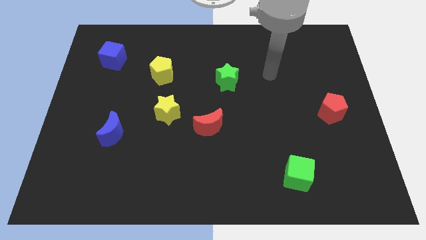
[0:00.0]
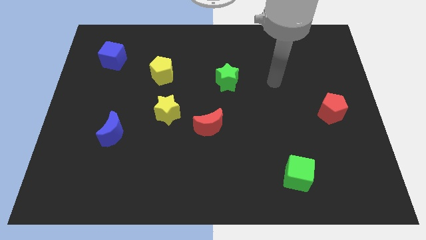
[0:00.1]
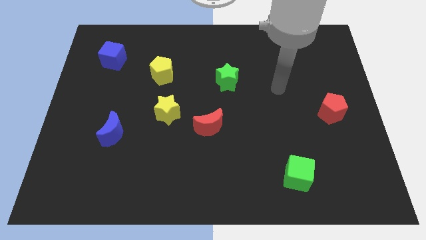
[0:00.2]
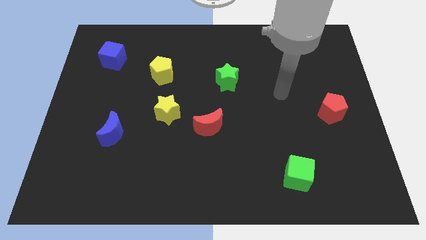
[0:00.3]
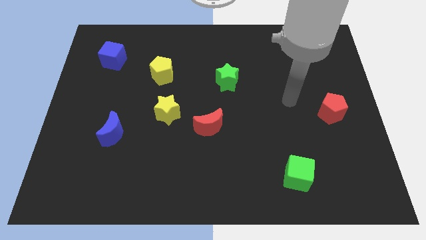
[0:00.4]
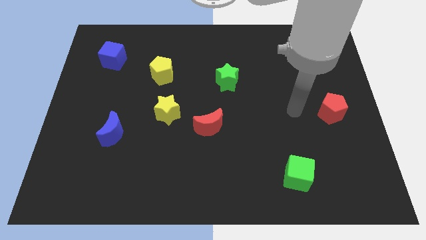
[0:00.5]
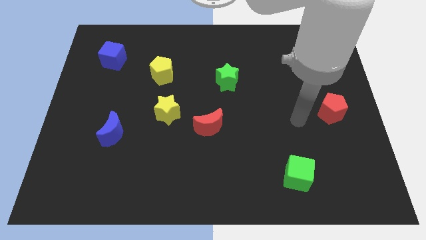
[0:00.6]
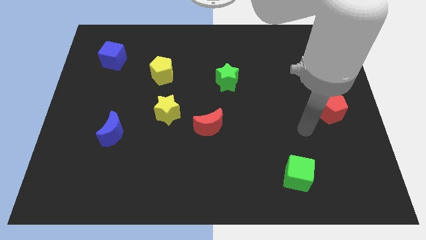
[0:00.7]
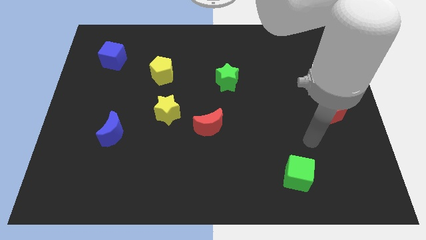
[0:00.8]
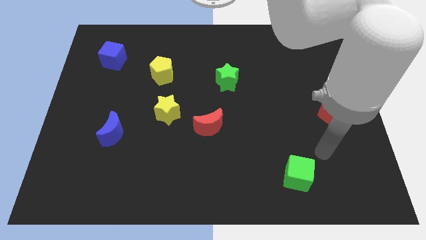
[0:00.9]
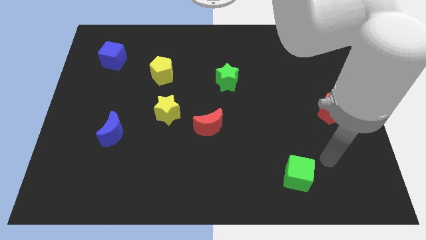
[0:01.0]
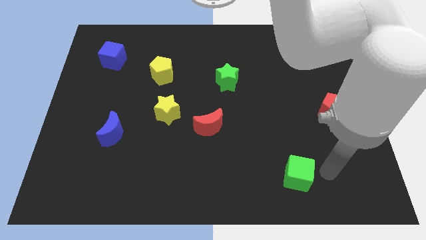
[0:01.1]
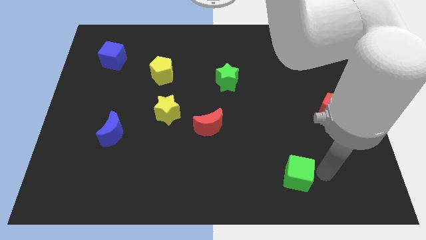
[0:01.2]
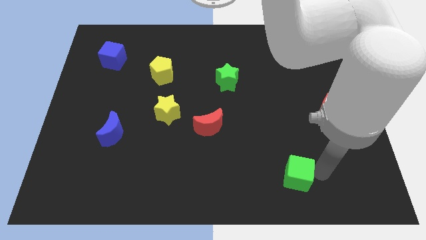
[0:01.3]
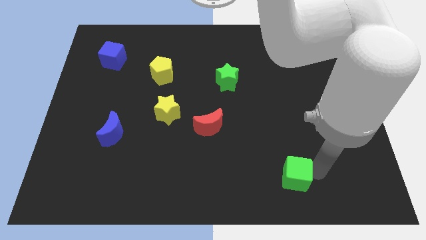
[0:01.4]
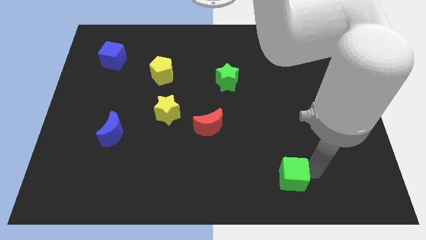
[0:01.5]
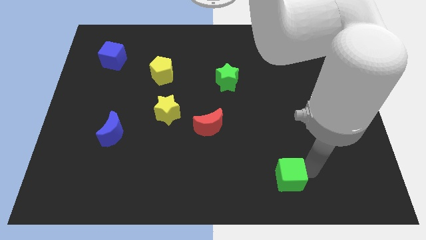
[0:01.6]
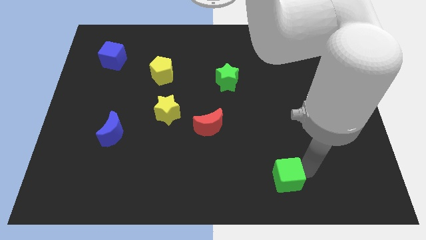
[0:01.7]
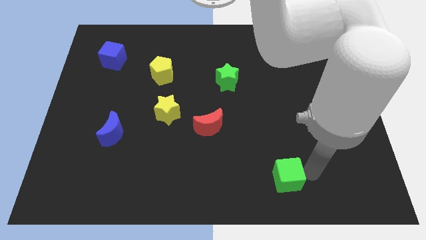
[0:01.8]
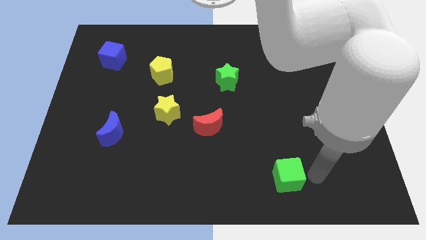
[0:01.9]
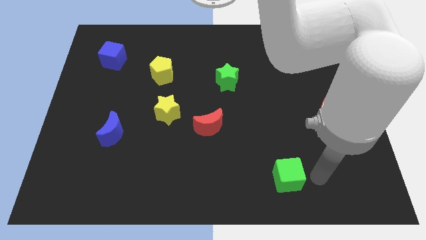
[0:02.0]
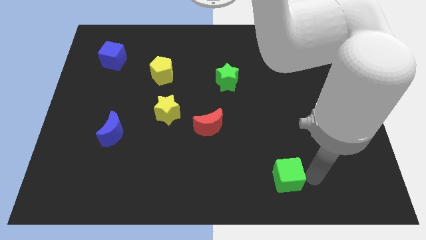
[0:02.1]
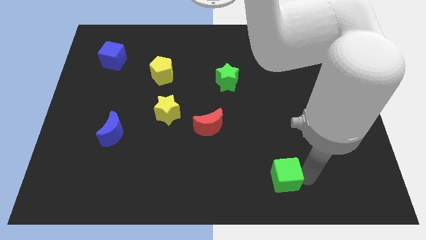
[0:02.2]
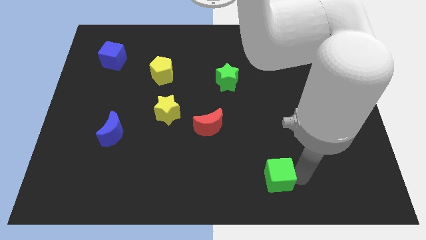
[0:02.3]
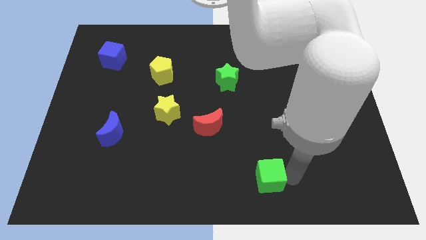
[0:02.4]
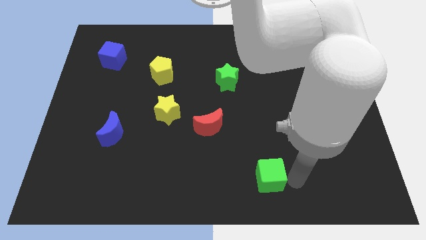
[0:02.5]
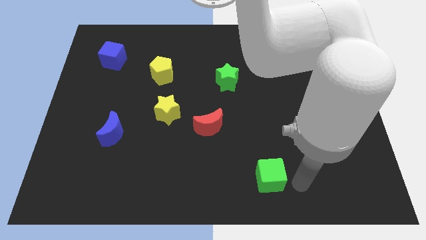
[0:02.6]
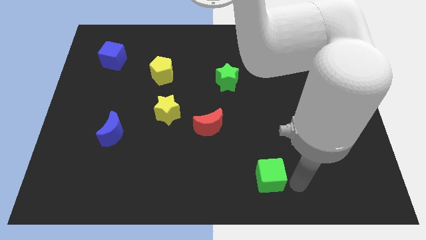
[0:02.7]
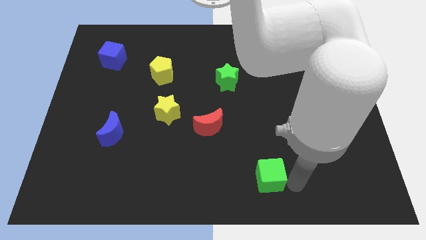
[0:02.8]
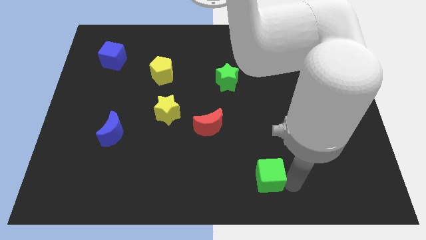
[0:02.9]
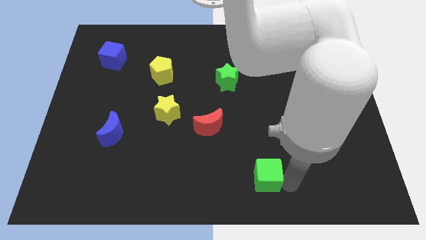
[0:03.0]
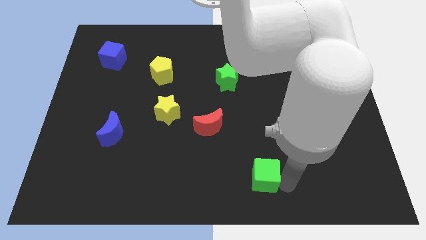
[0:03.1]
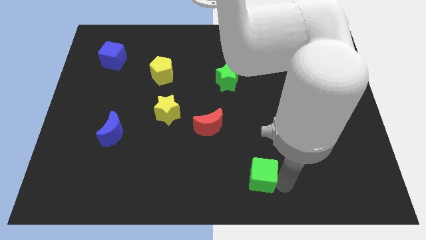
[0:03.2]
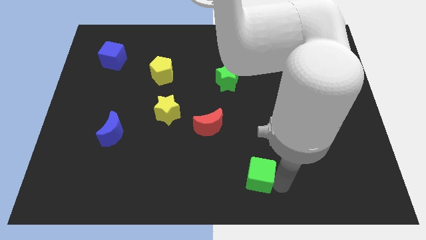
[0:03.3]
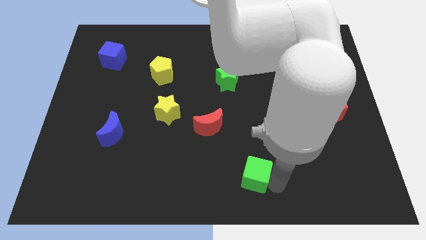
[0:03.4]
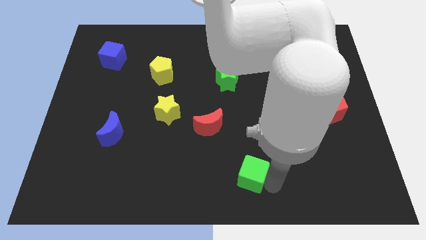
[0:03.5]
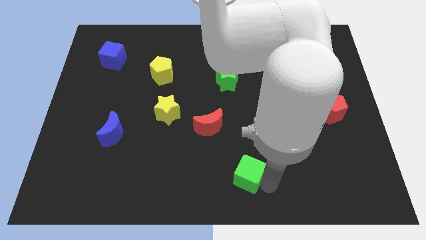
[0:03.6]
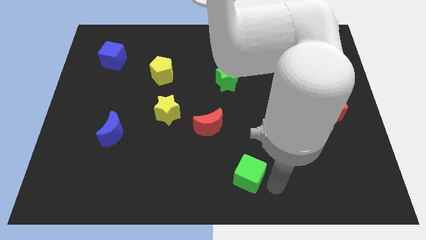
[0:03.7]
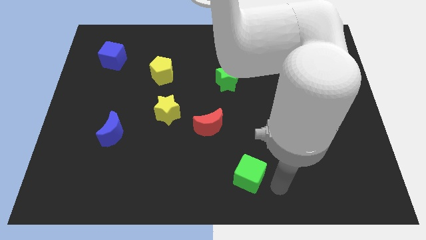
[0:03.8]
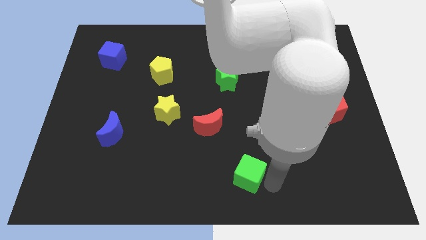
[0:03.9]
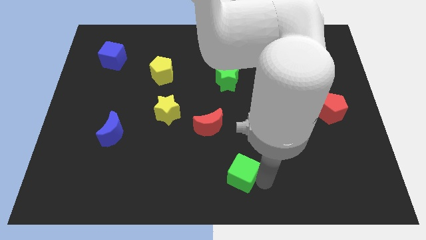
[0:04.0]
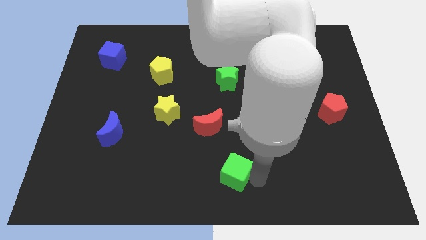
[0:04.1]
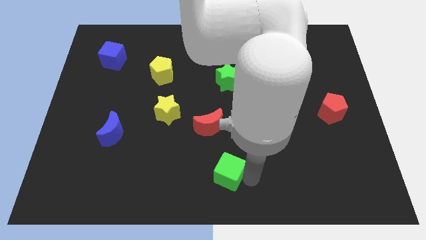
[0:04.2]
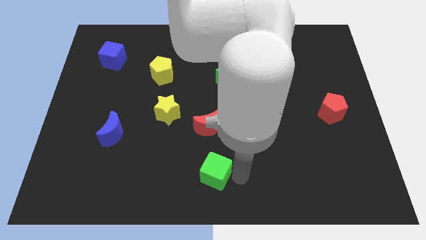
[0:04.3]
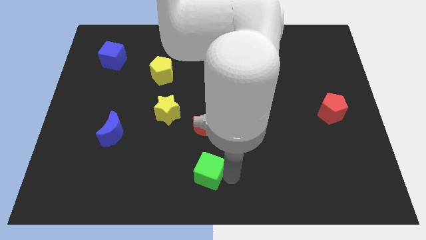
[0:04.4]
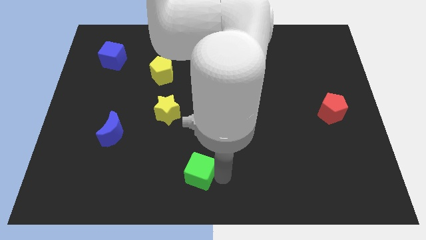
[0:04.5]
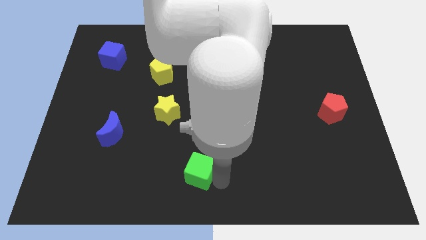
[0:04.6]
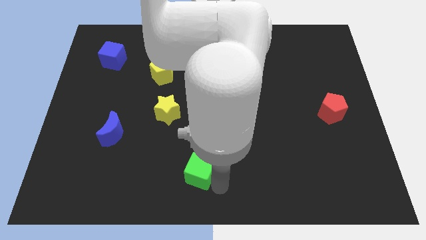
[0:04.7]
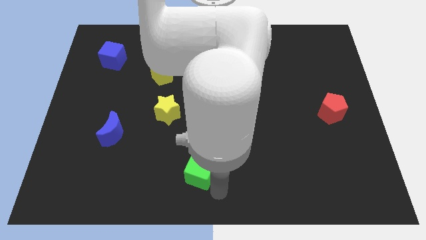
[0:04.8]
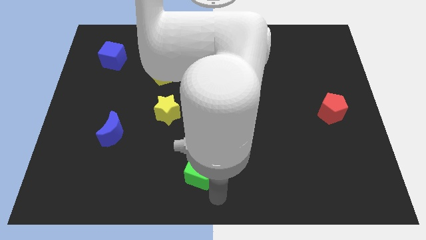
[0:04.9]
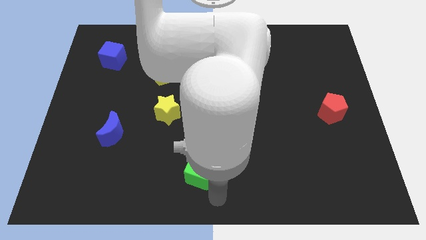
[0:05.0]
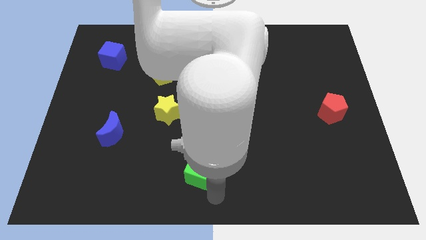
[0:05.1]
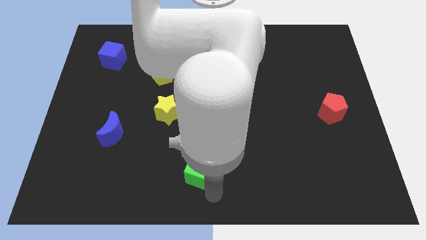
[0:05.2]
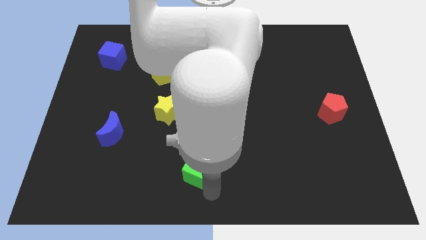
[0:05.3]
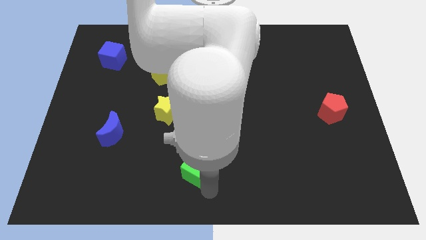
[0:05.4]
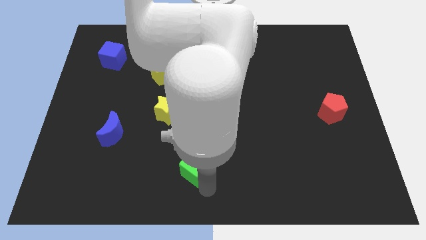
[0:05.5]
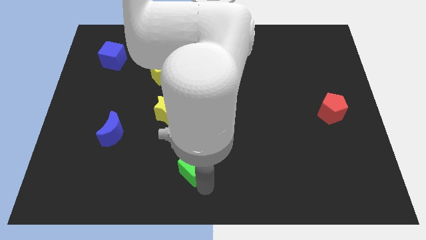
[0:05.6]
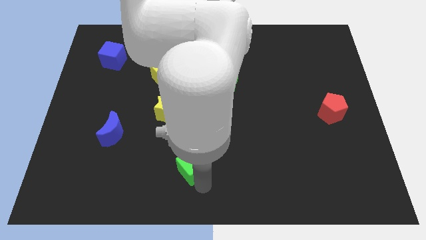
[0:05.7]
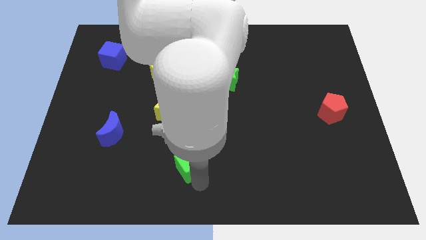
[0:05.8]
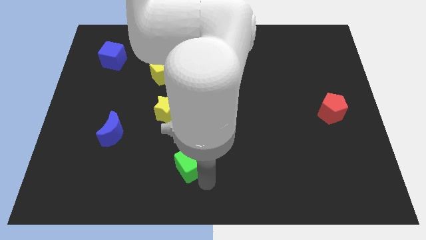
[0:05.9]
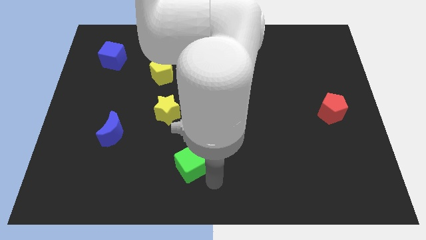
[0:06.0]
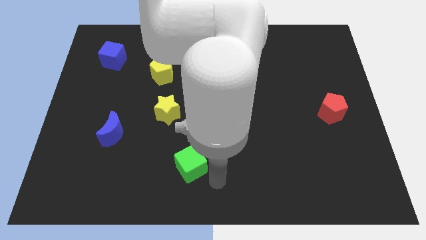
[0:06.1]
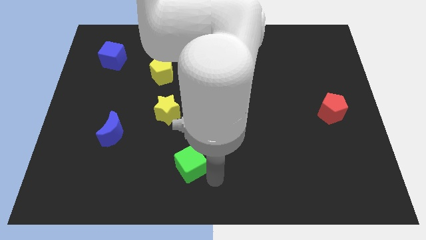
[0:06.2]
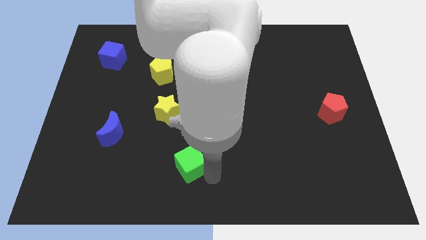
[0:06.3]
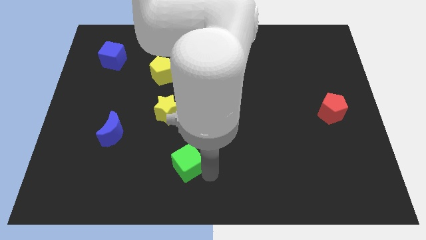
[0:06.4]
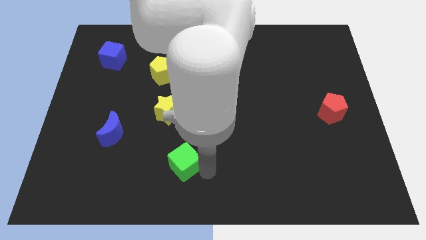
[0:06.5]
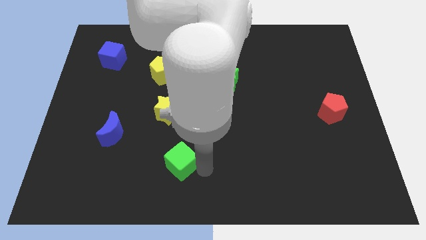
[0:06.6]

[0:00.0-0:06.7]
move the green cube below the yellow star
